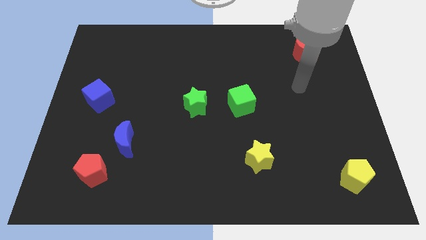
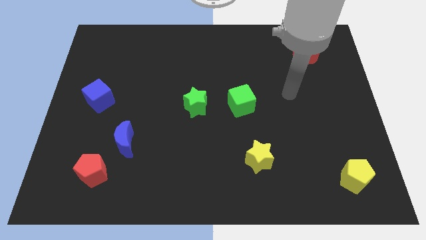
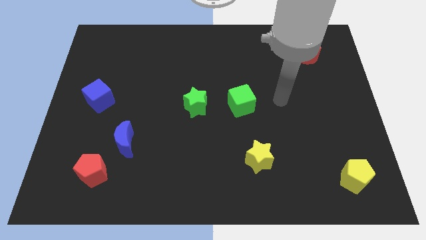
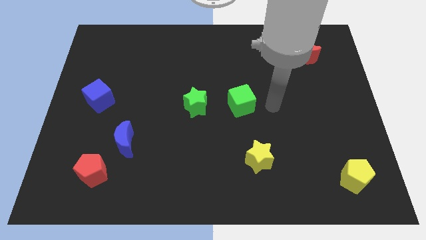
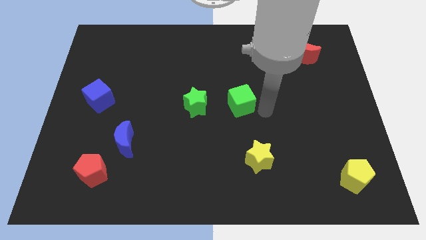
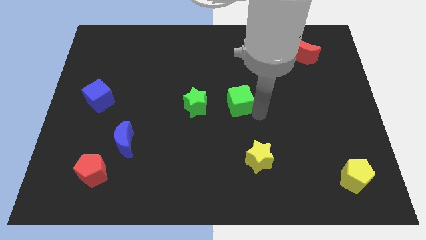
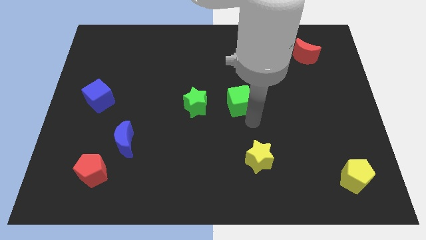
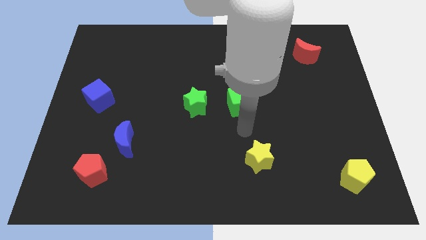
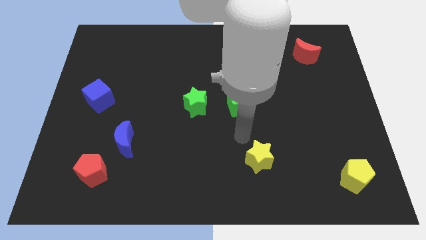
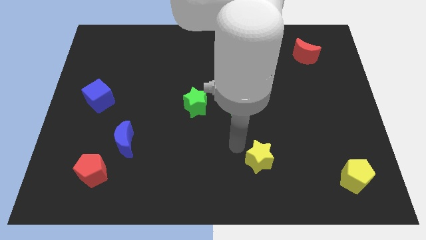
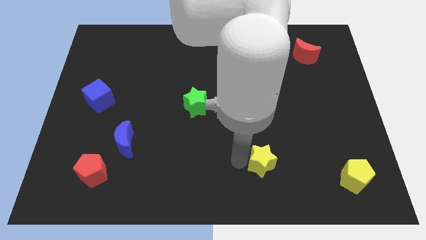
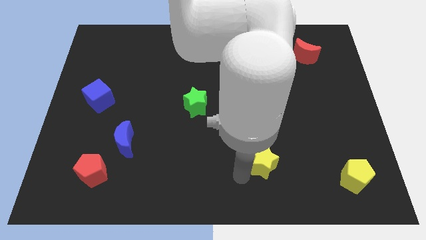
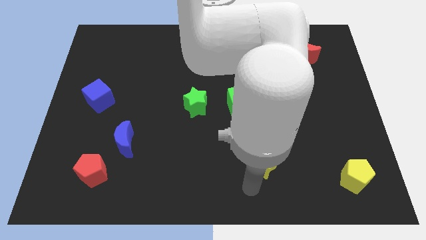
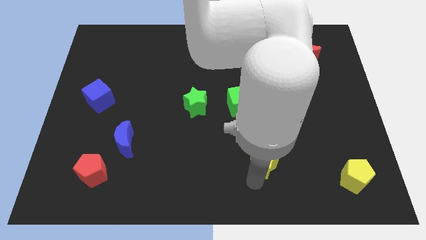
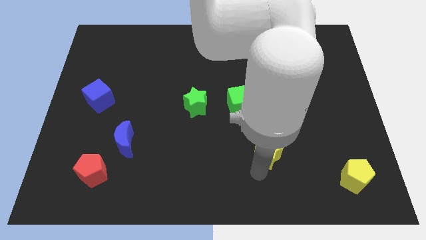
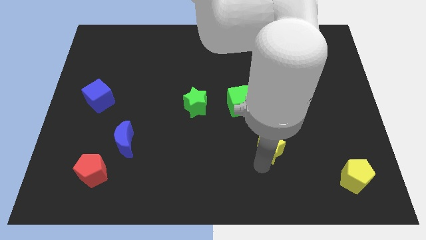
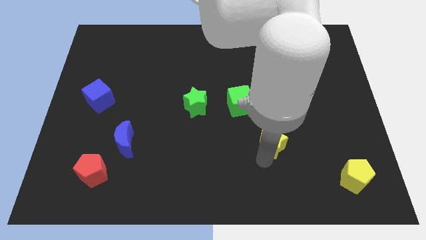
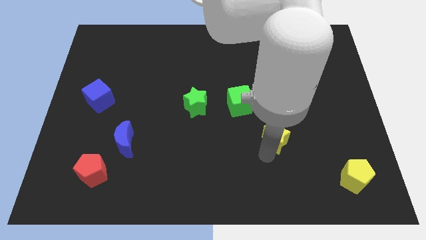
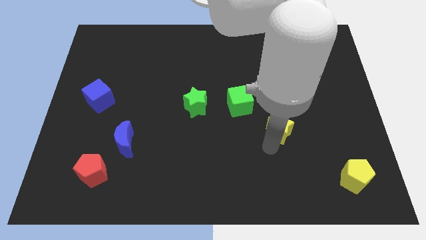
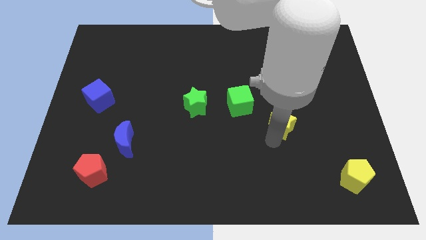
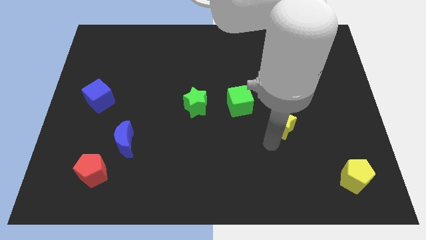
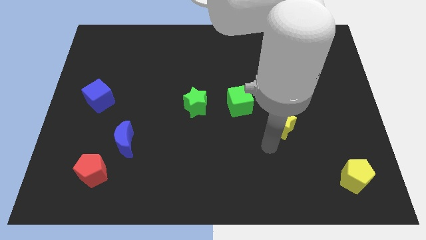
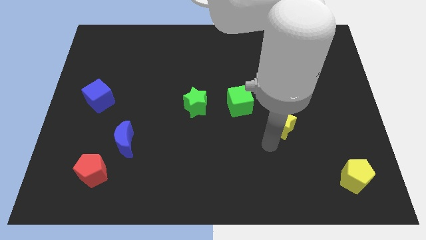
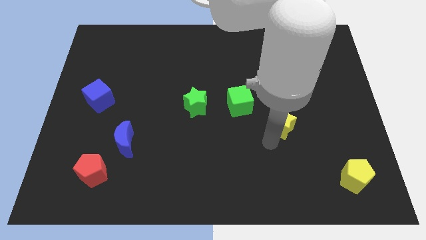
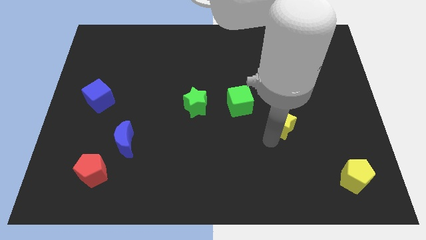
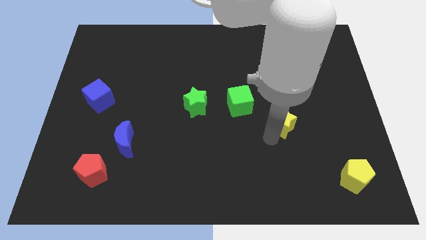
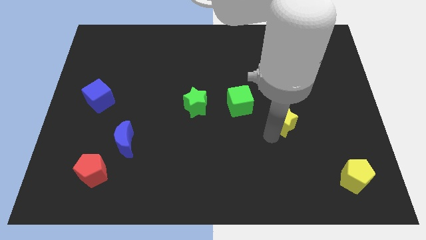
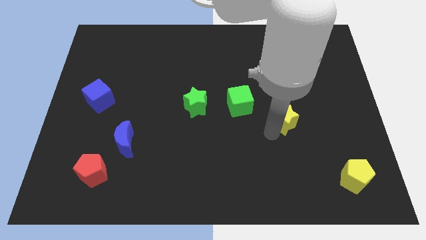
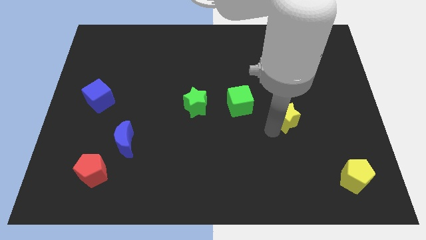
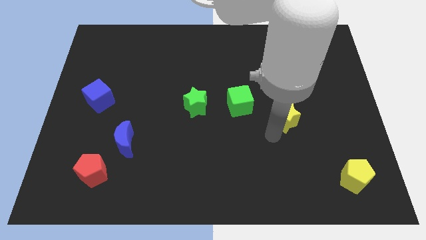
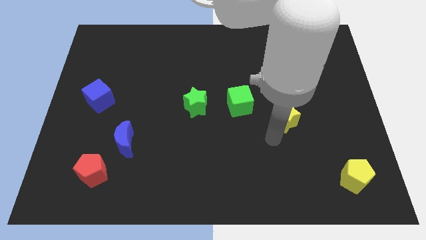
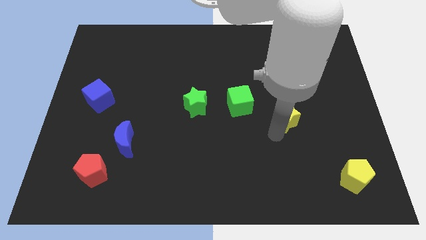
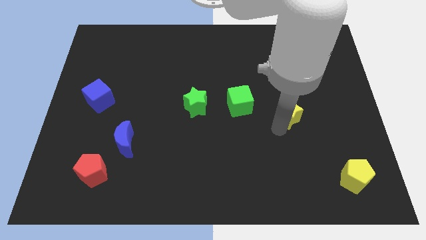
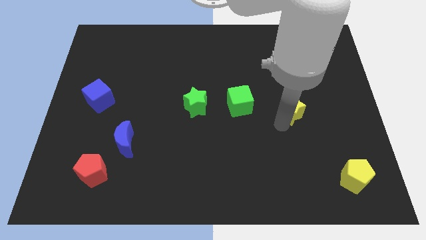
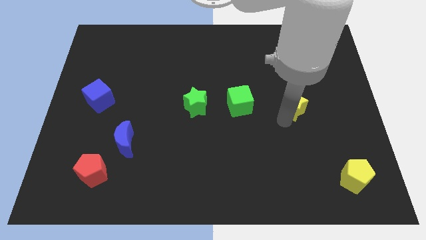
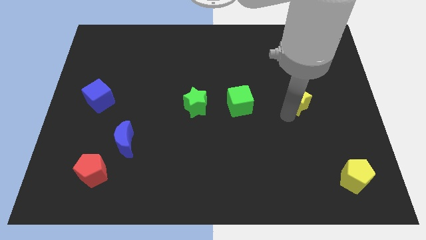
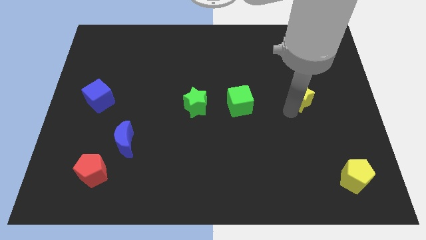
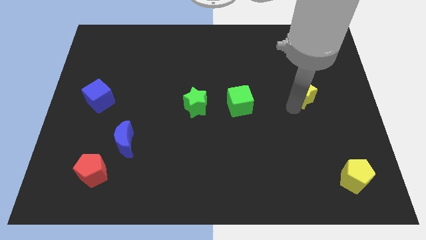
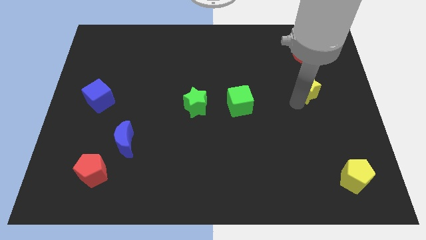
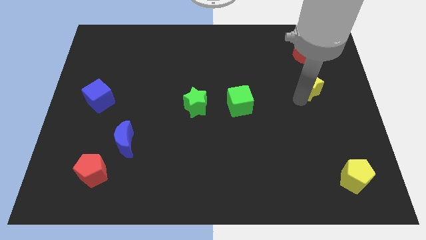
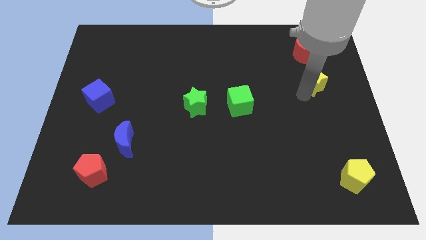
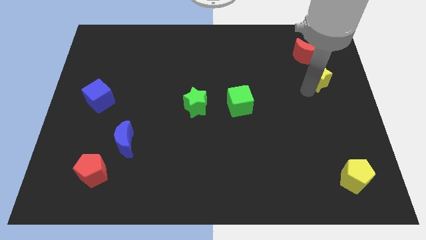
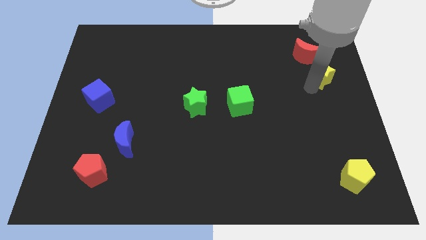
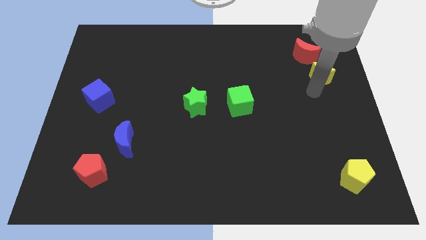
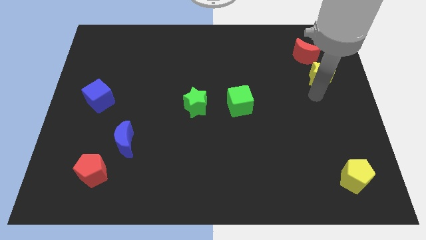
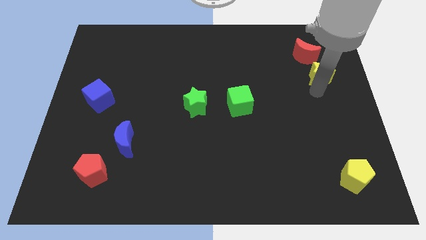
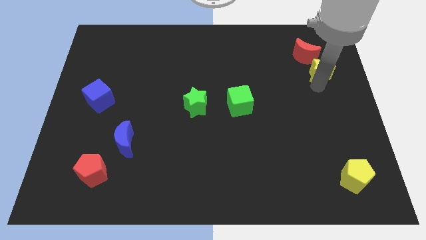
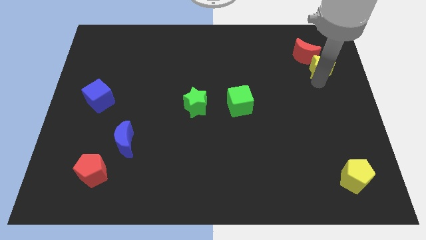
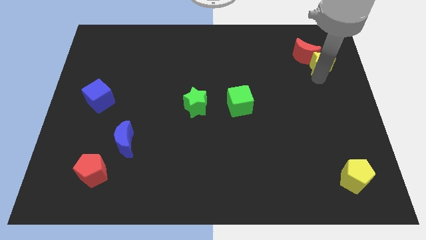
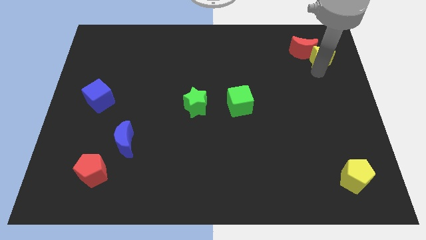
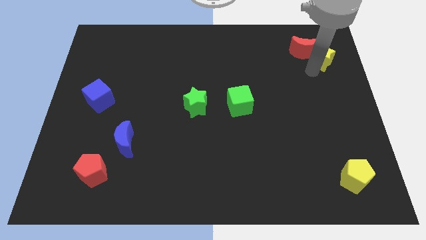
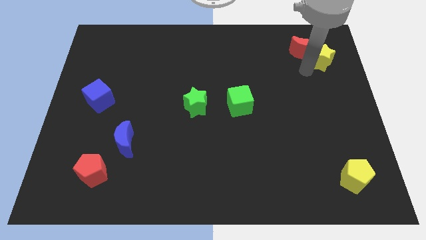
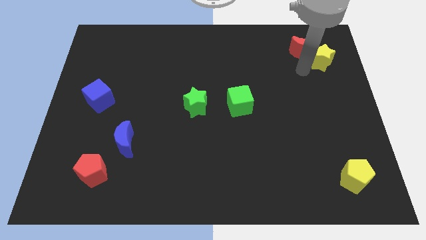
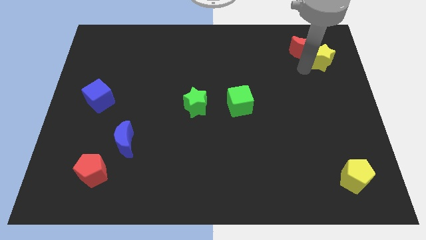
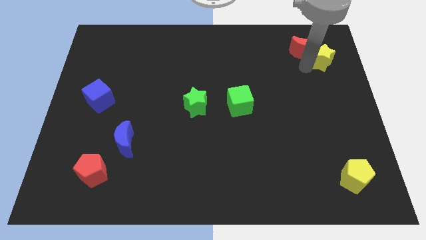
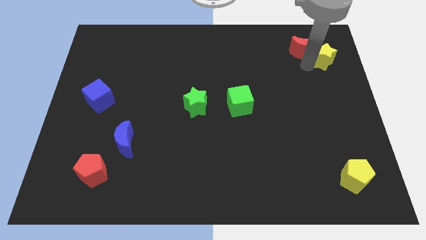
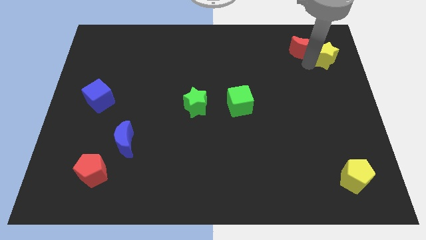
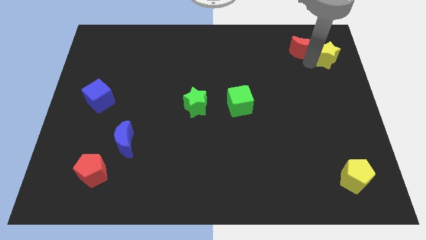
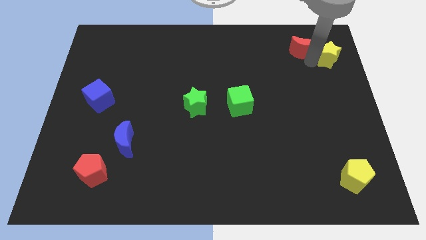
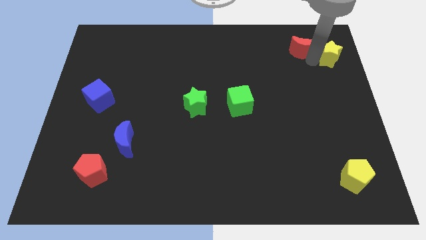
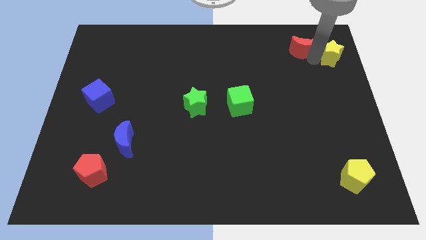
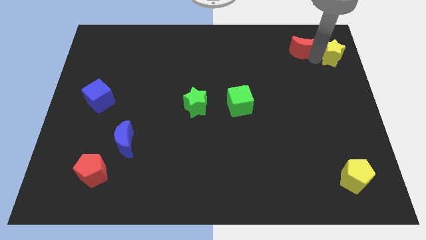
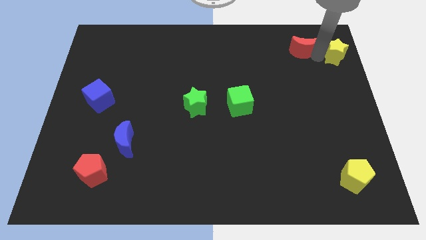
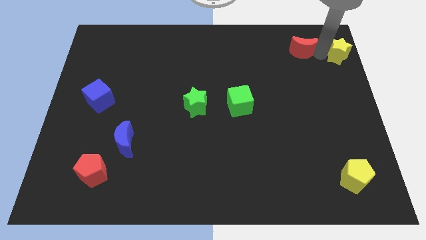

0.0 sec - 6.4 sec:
slide the yellow star to the top right

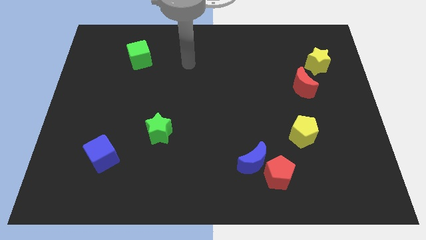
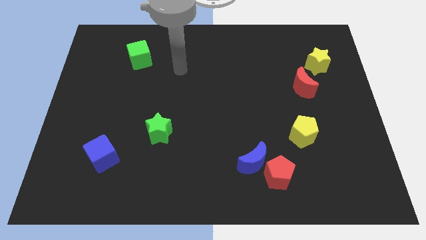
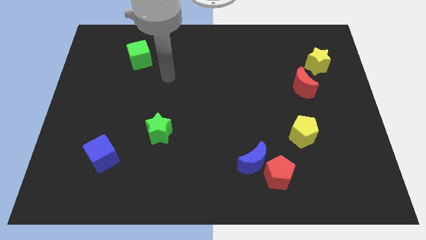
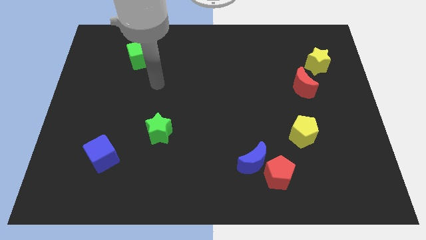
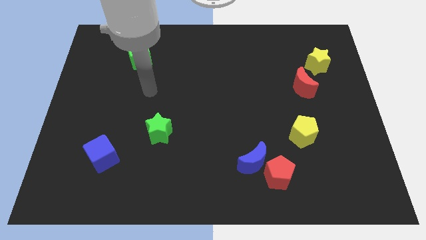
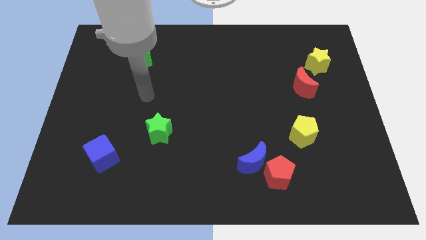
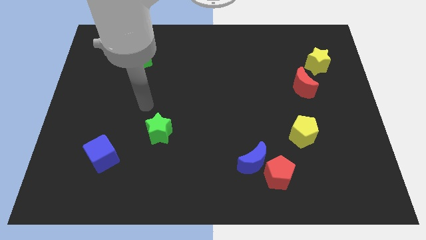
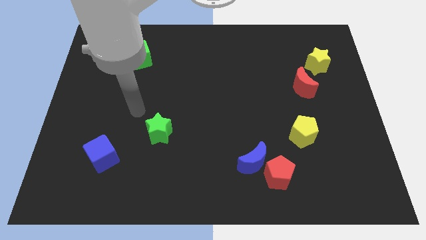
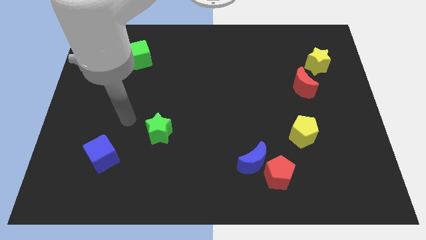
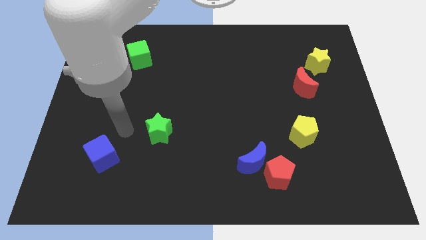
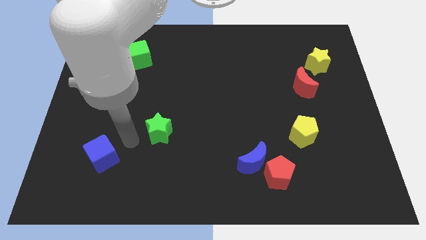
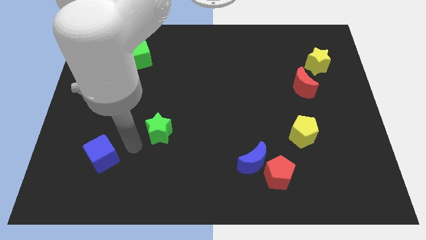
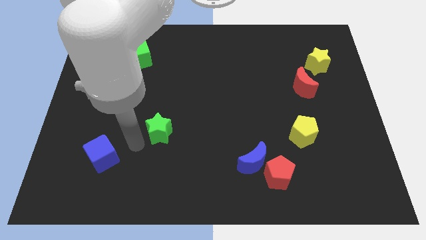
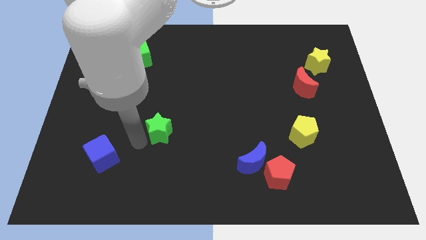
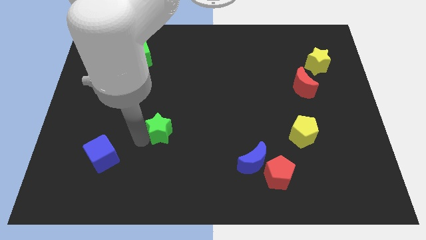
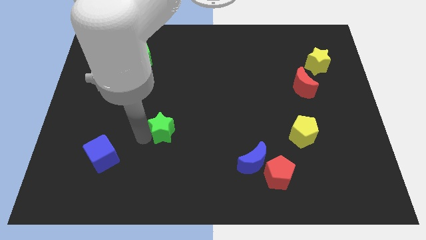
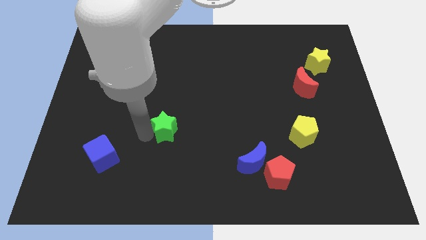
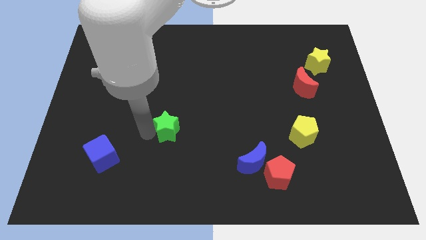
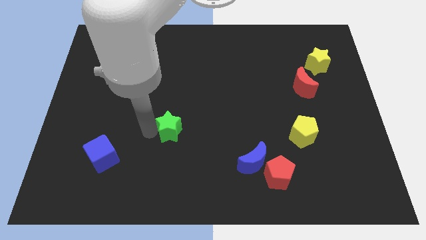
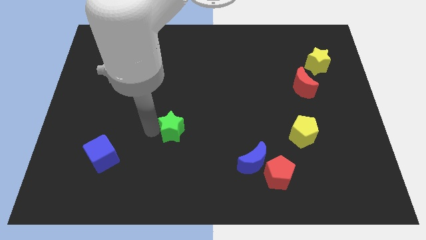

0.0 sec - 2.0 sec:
move the green star to the middle
